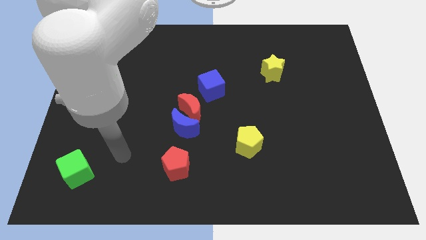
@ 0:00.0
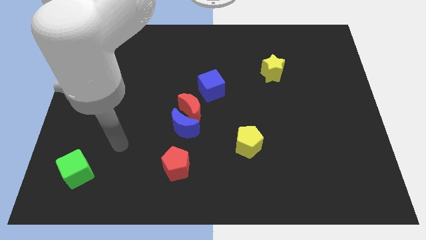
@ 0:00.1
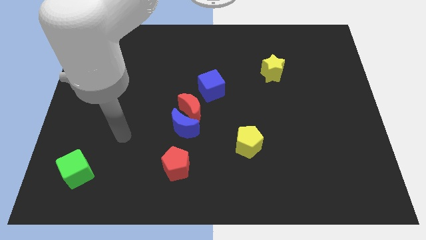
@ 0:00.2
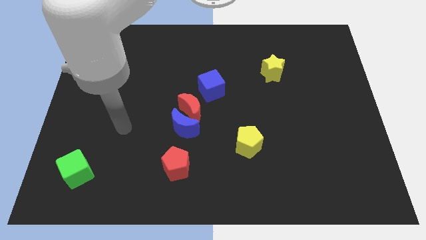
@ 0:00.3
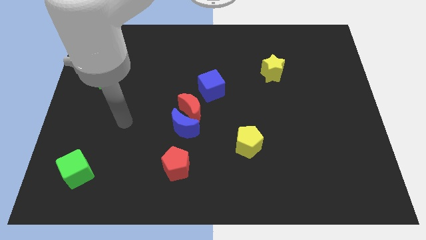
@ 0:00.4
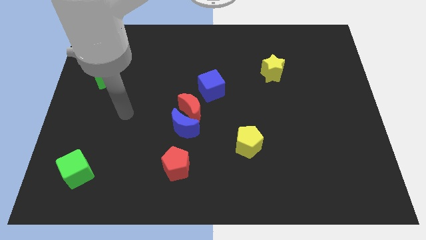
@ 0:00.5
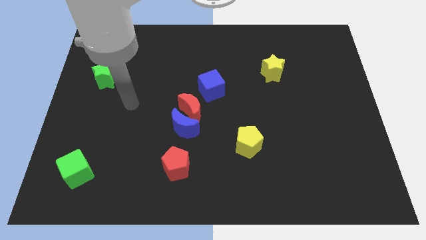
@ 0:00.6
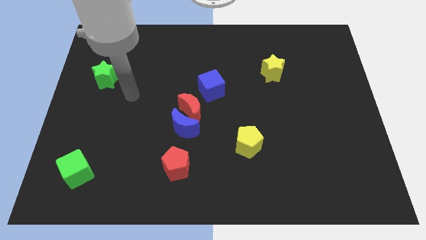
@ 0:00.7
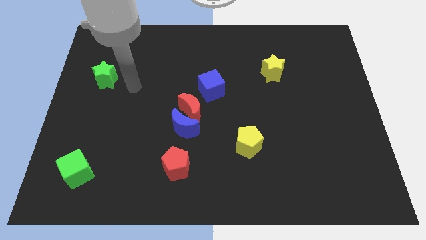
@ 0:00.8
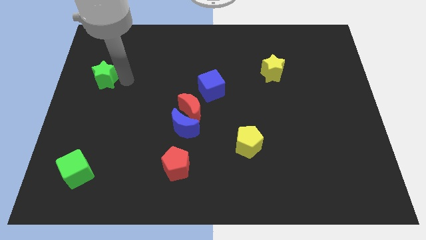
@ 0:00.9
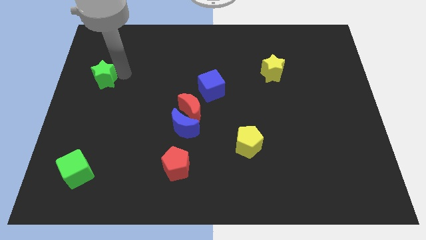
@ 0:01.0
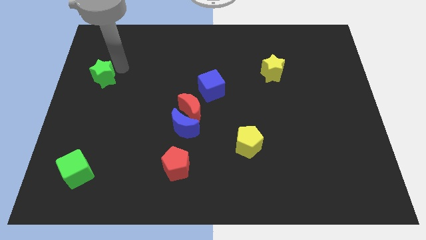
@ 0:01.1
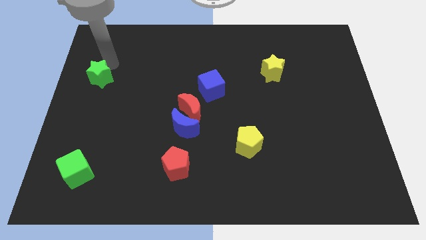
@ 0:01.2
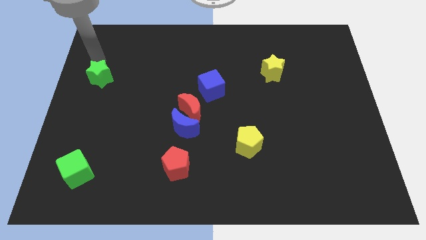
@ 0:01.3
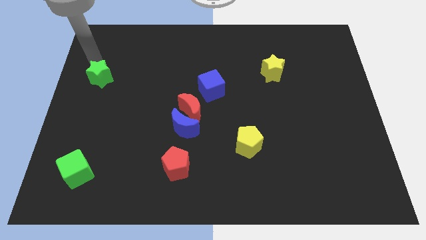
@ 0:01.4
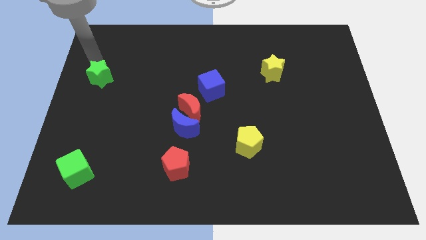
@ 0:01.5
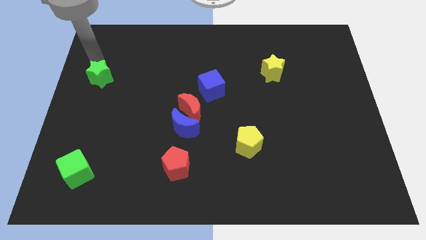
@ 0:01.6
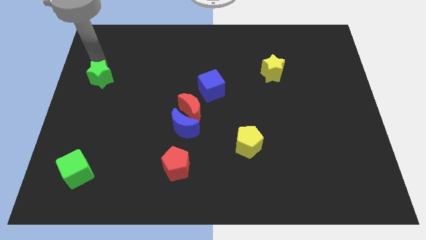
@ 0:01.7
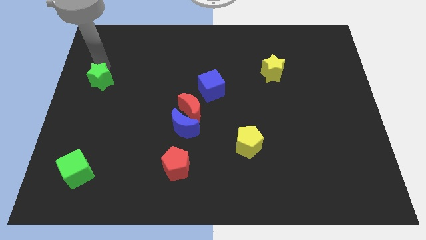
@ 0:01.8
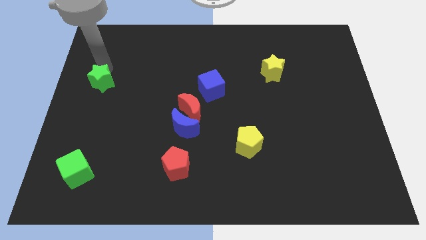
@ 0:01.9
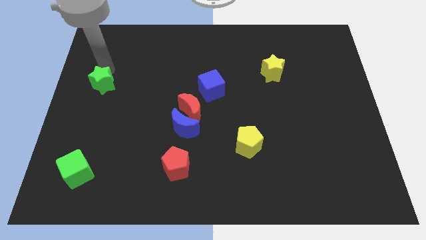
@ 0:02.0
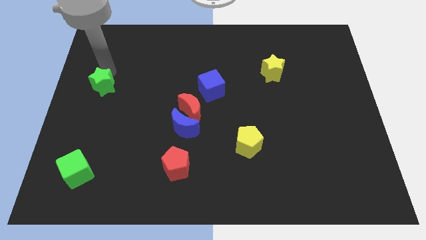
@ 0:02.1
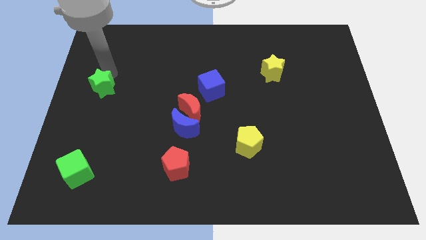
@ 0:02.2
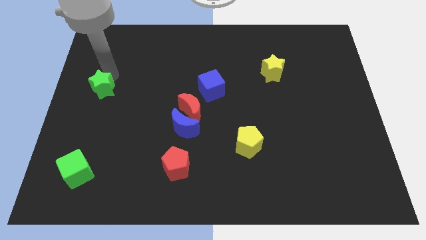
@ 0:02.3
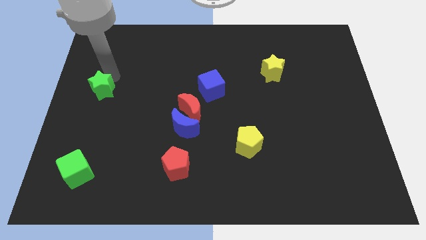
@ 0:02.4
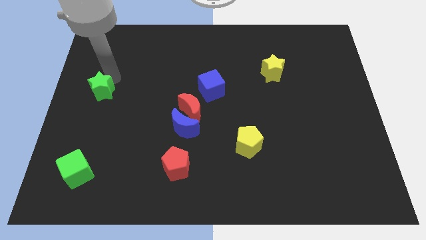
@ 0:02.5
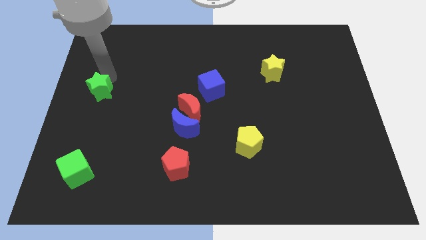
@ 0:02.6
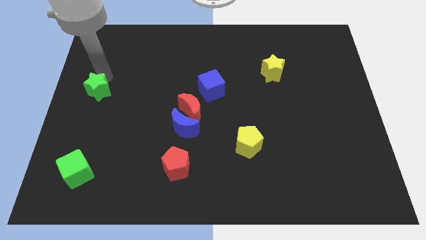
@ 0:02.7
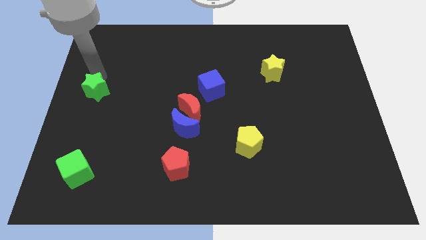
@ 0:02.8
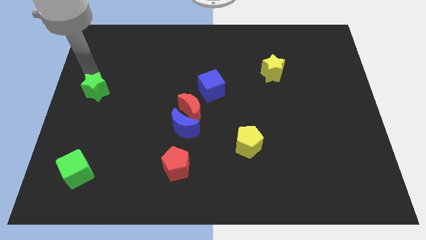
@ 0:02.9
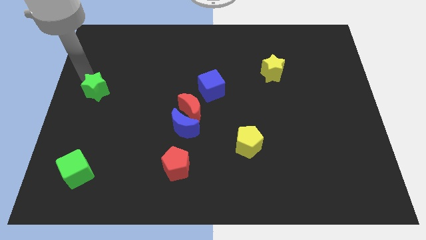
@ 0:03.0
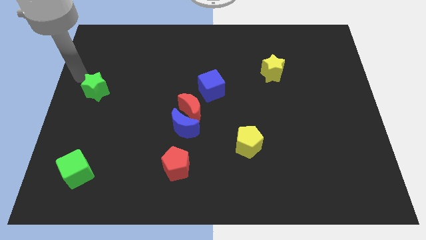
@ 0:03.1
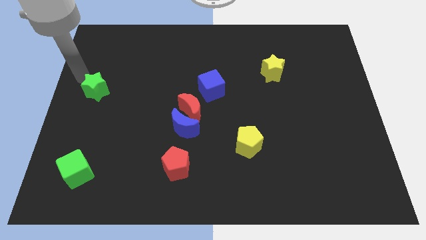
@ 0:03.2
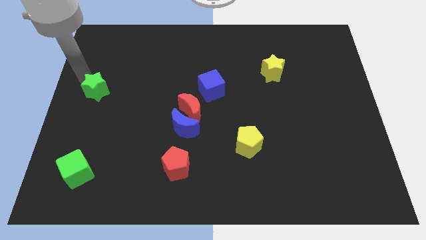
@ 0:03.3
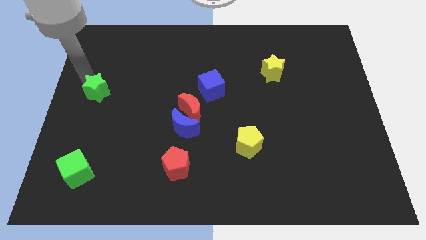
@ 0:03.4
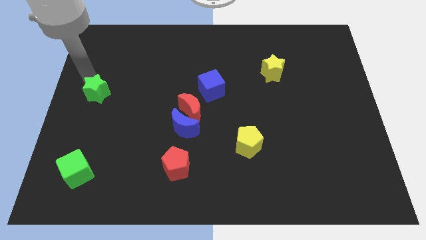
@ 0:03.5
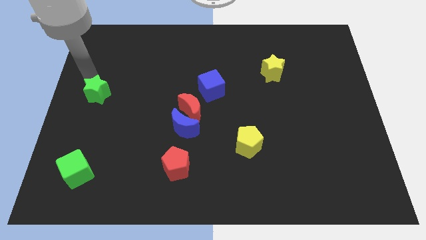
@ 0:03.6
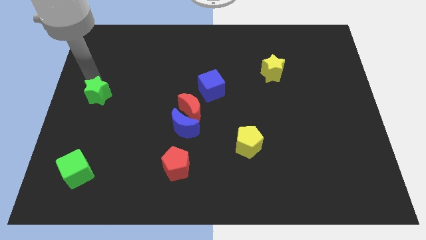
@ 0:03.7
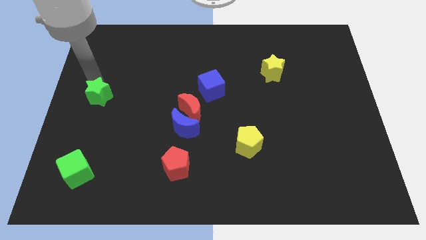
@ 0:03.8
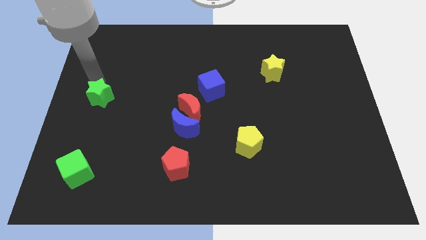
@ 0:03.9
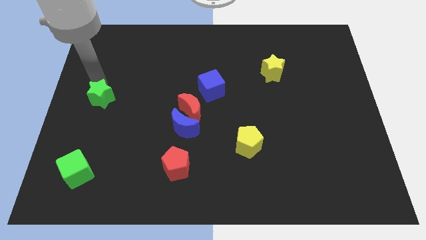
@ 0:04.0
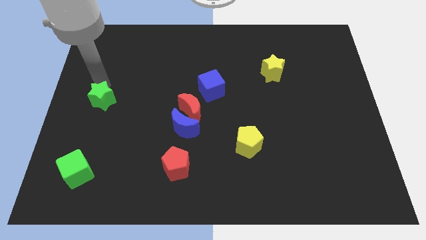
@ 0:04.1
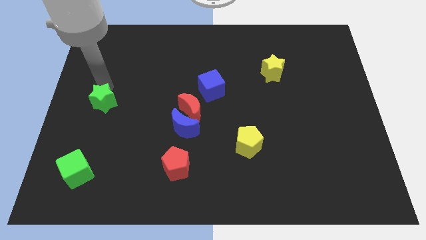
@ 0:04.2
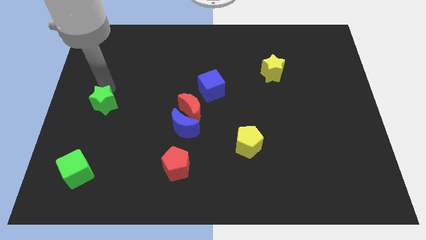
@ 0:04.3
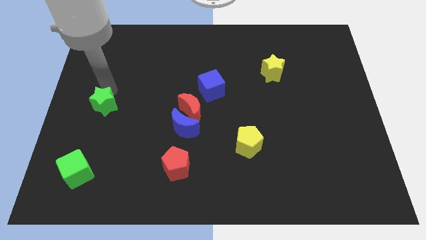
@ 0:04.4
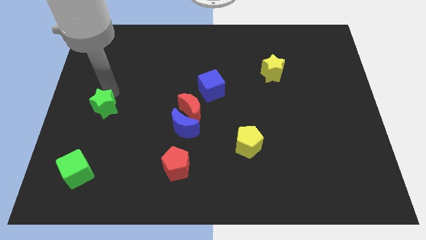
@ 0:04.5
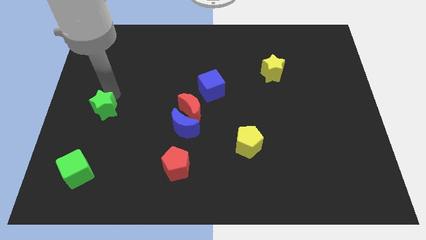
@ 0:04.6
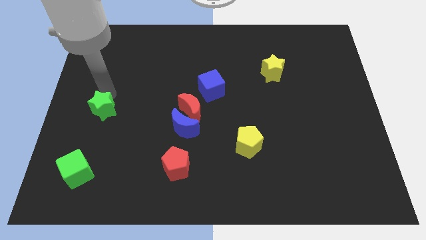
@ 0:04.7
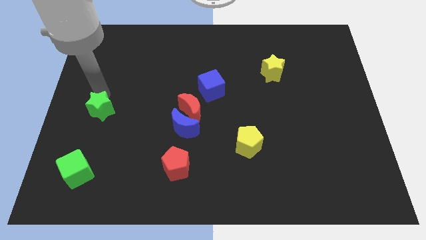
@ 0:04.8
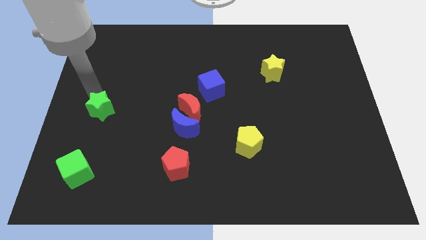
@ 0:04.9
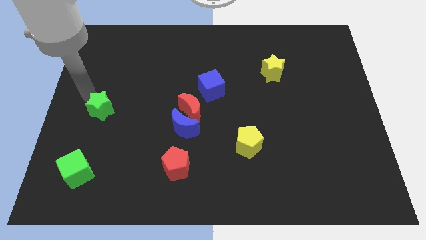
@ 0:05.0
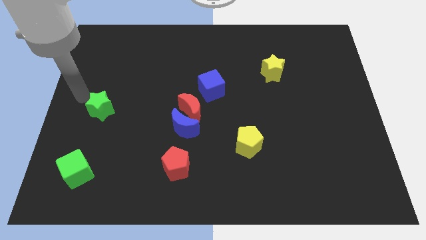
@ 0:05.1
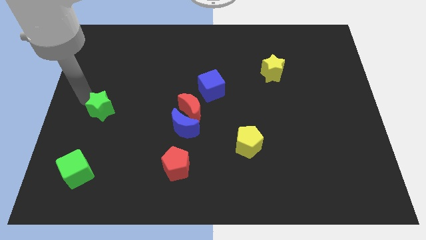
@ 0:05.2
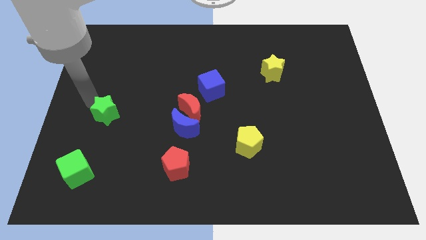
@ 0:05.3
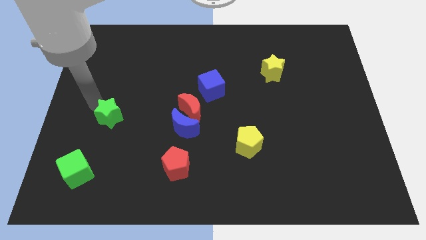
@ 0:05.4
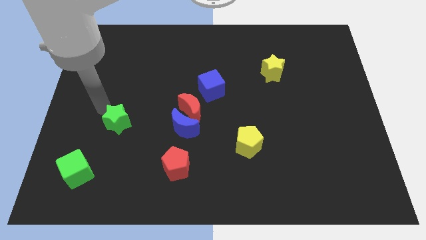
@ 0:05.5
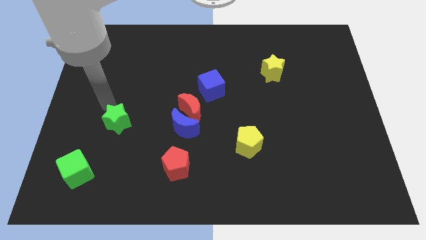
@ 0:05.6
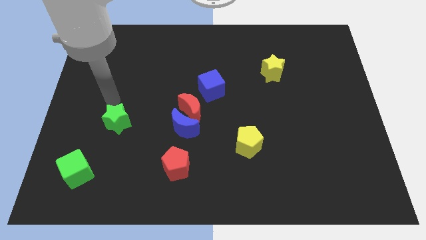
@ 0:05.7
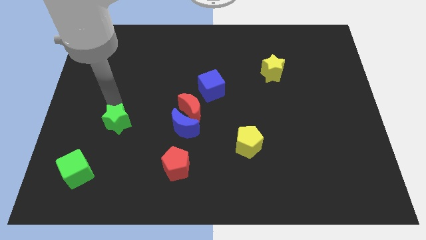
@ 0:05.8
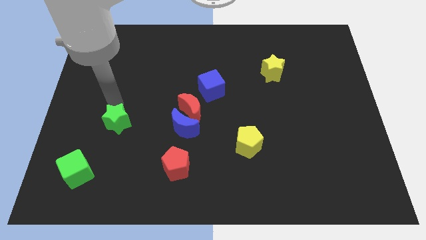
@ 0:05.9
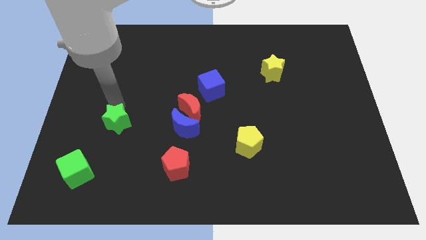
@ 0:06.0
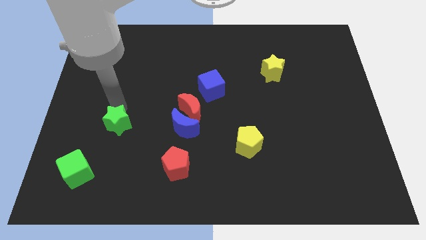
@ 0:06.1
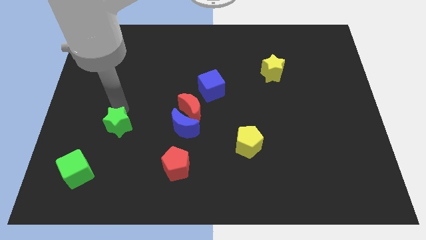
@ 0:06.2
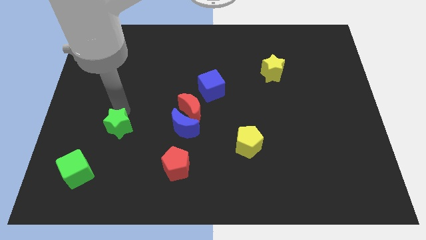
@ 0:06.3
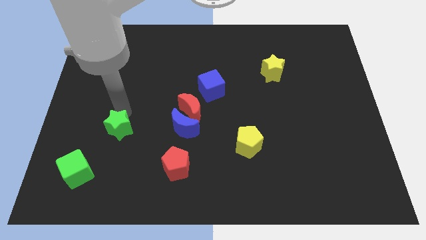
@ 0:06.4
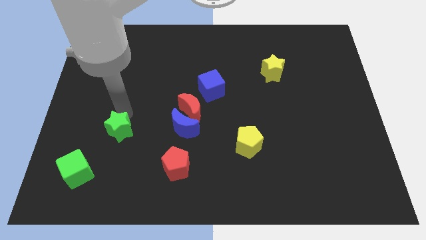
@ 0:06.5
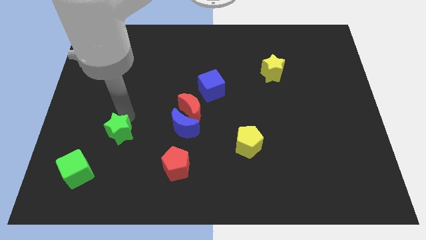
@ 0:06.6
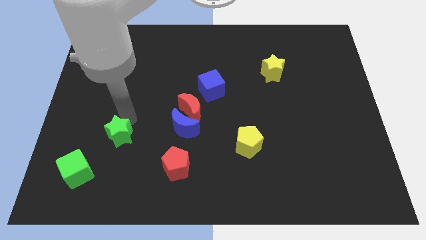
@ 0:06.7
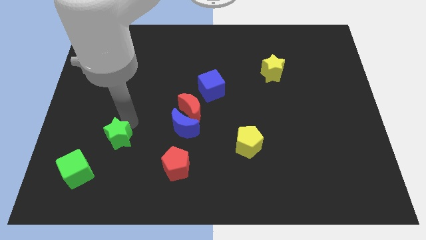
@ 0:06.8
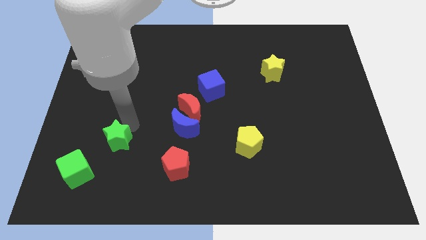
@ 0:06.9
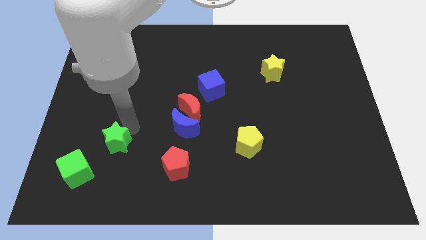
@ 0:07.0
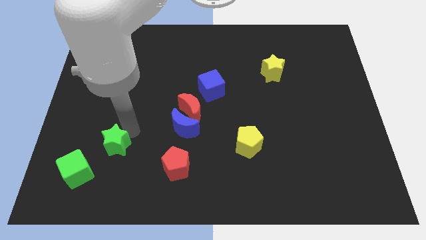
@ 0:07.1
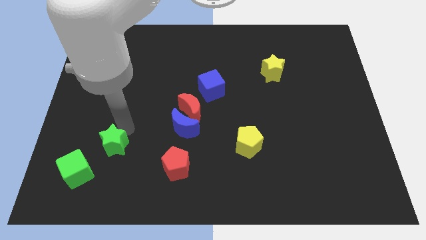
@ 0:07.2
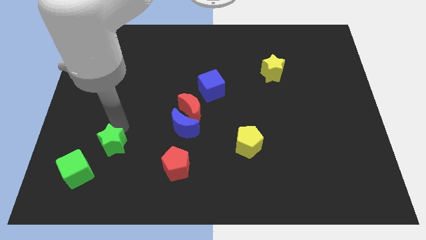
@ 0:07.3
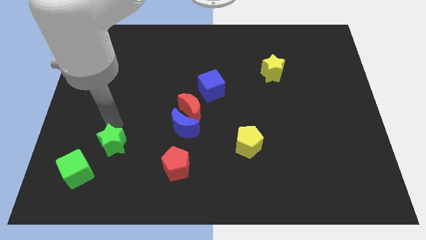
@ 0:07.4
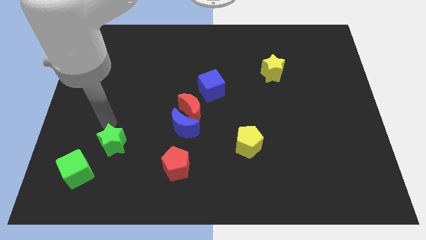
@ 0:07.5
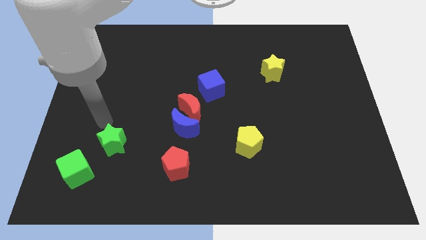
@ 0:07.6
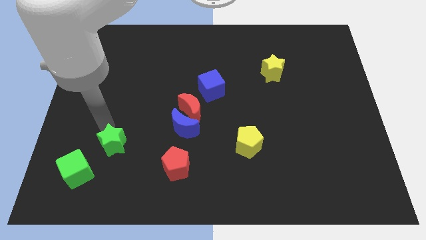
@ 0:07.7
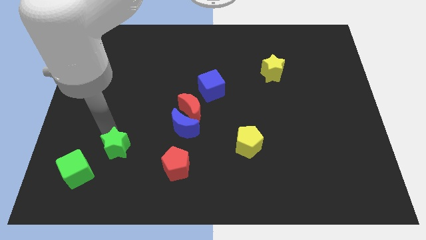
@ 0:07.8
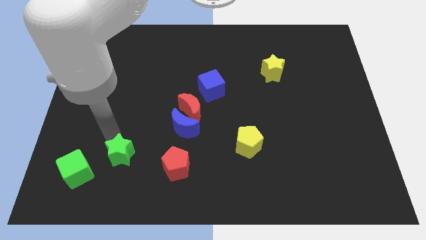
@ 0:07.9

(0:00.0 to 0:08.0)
push the green star left of the red pentagon
